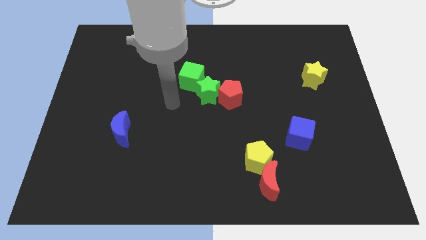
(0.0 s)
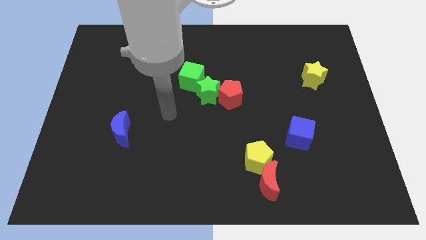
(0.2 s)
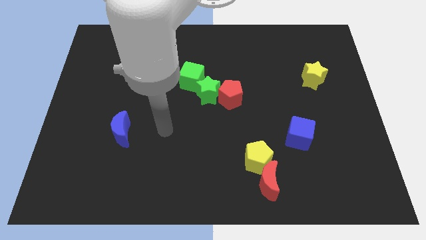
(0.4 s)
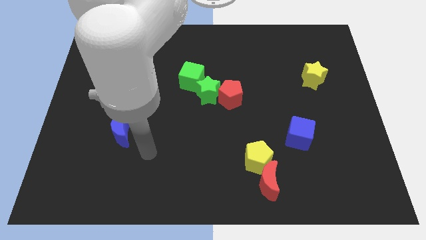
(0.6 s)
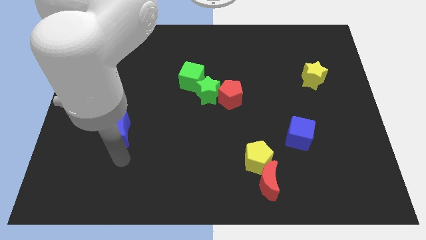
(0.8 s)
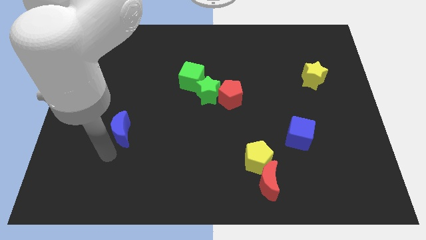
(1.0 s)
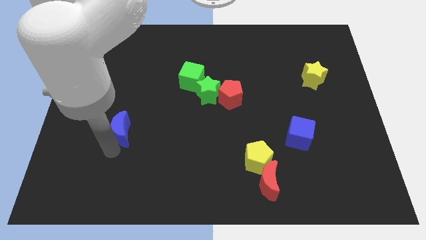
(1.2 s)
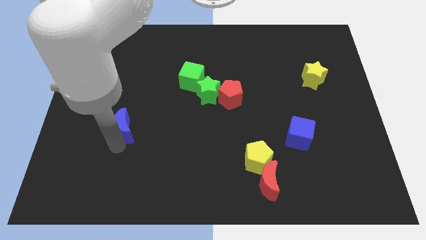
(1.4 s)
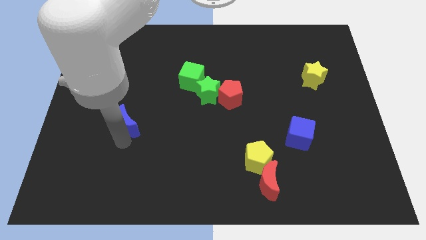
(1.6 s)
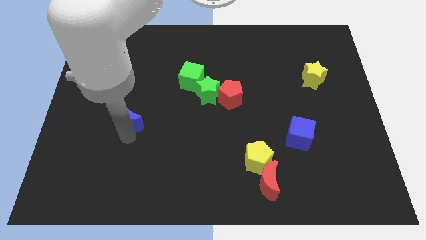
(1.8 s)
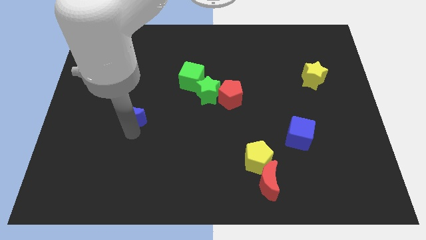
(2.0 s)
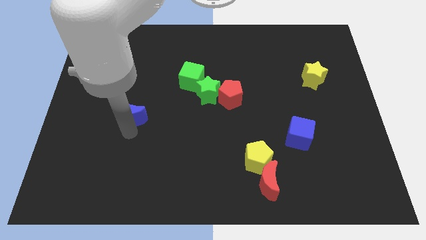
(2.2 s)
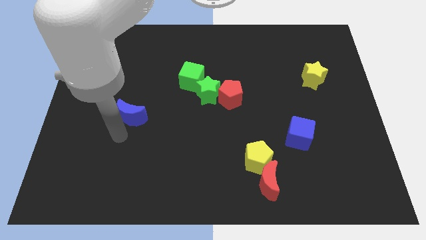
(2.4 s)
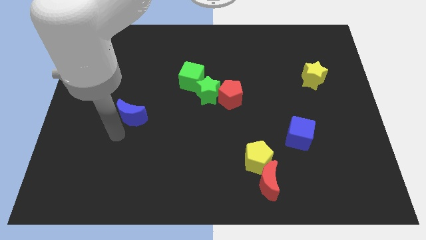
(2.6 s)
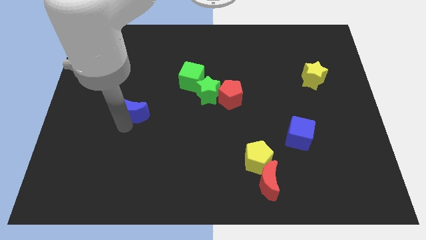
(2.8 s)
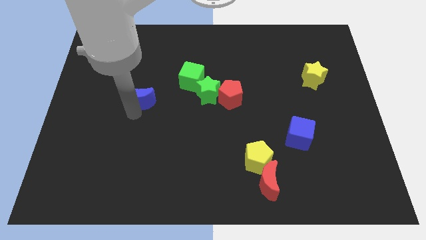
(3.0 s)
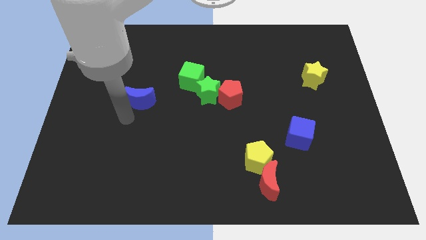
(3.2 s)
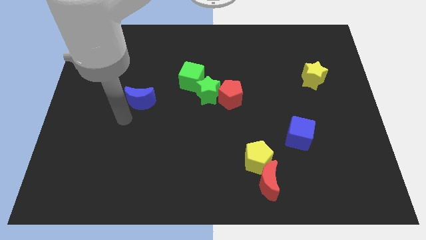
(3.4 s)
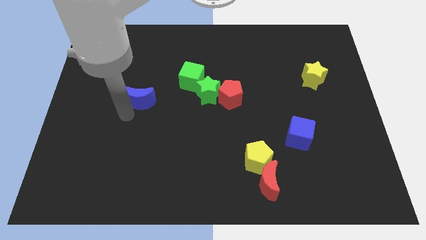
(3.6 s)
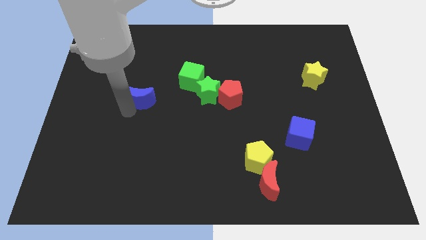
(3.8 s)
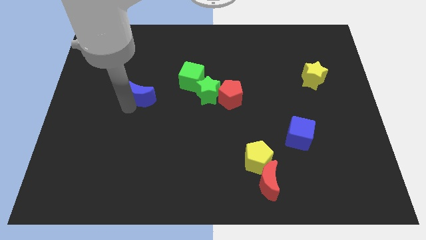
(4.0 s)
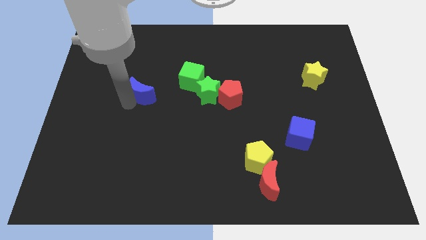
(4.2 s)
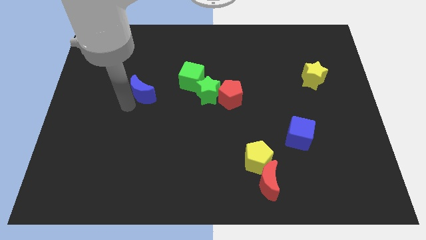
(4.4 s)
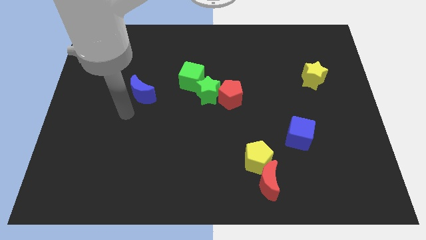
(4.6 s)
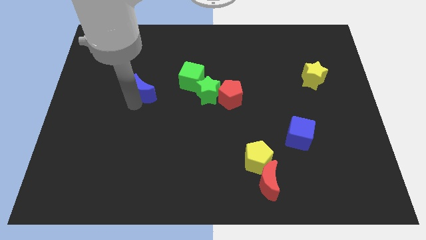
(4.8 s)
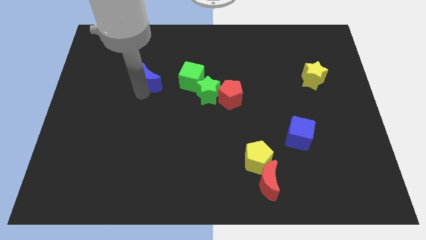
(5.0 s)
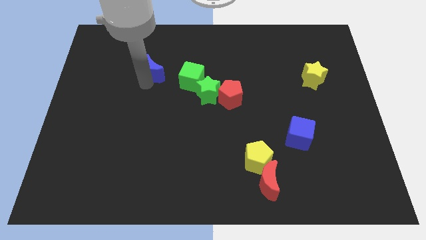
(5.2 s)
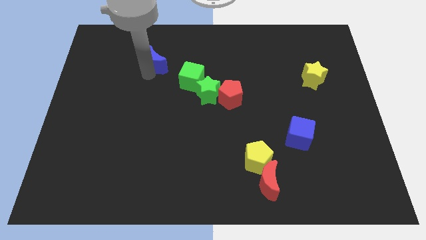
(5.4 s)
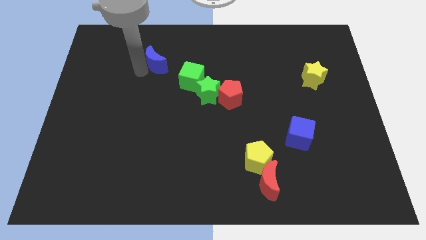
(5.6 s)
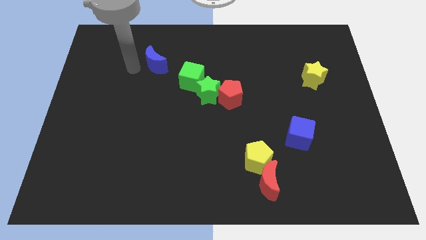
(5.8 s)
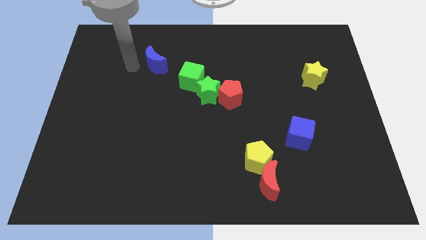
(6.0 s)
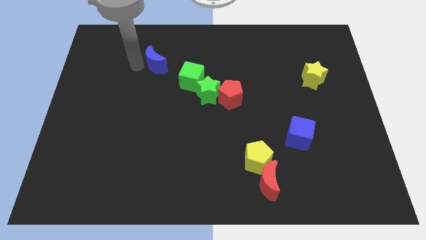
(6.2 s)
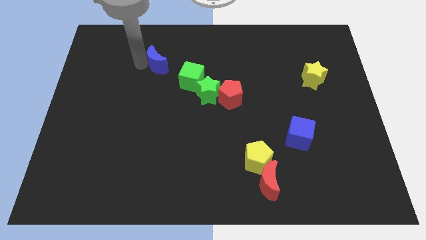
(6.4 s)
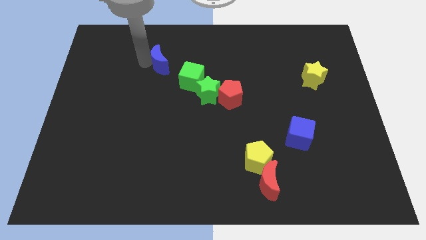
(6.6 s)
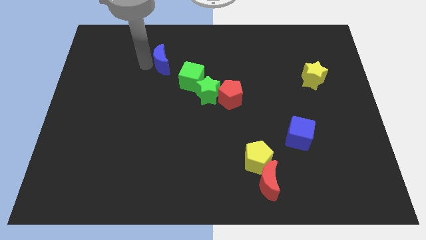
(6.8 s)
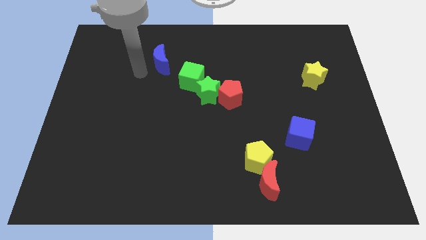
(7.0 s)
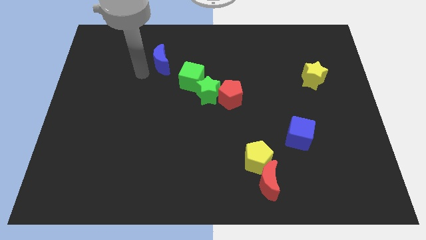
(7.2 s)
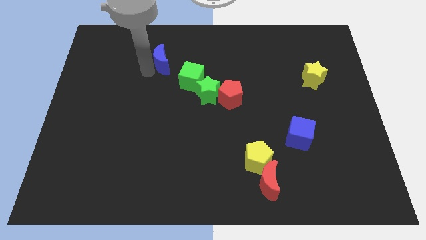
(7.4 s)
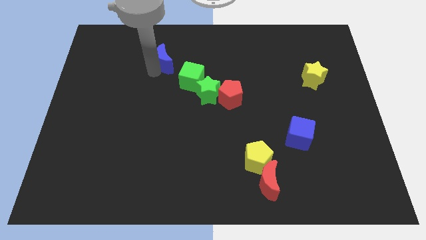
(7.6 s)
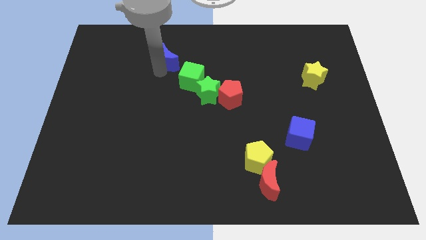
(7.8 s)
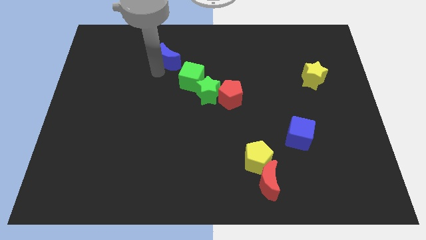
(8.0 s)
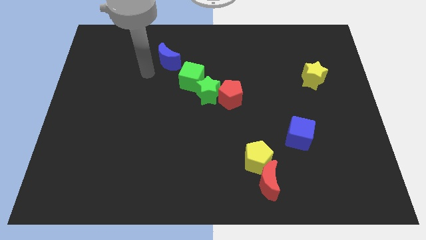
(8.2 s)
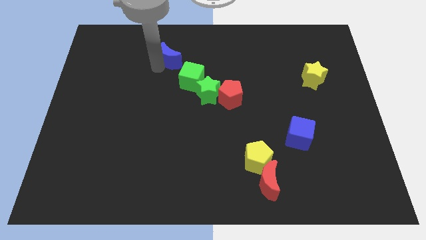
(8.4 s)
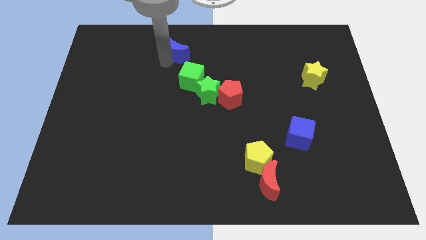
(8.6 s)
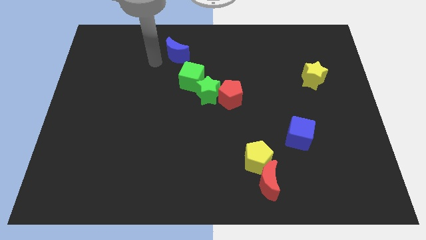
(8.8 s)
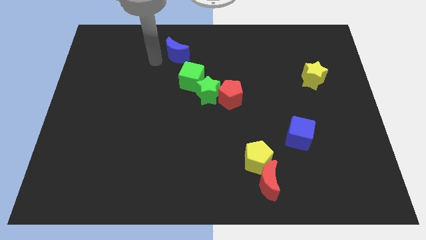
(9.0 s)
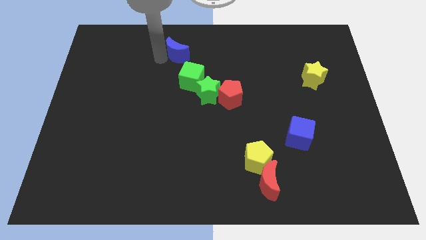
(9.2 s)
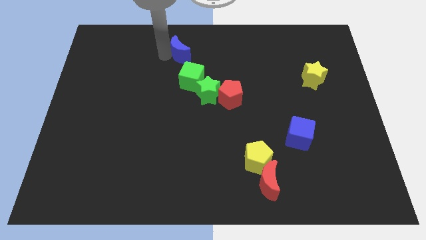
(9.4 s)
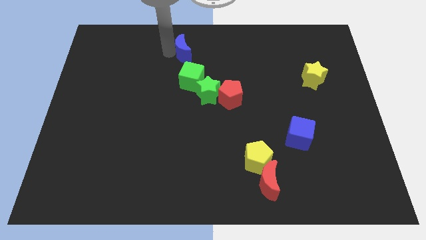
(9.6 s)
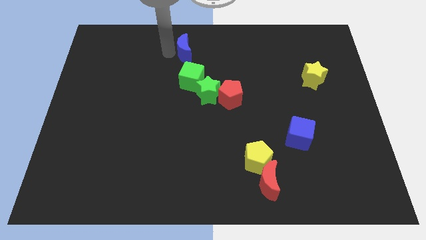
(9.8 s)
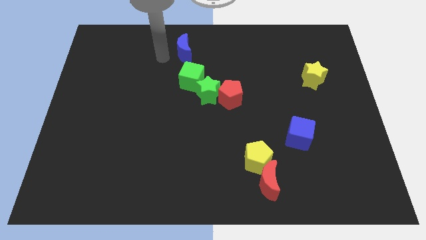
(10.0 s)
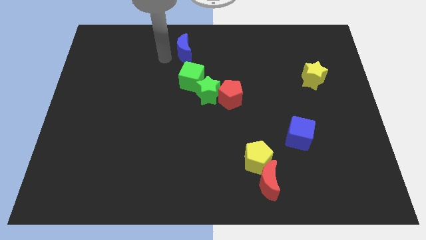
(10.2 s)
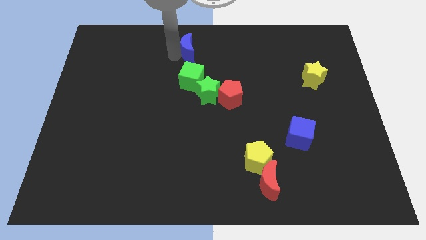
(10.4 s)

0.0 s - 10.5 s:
slide the blue moon to the towards your base
